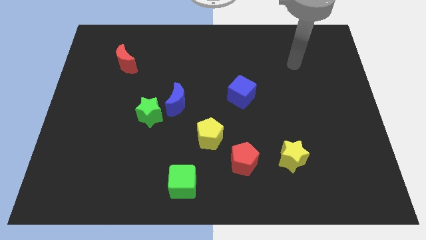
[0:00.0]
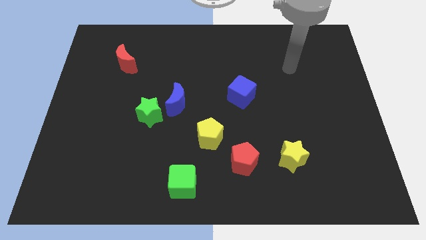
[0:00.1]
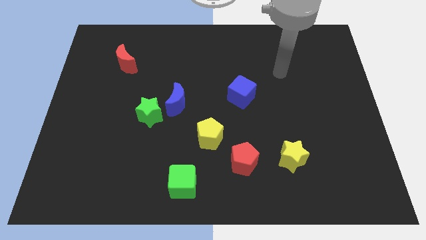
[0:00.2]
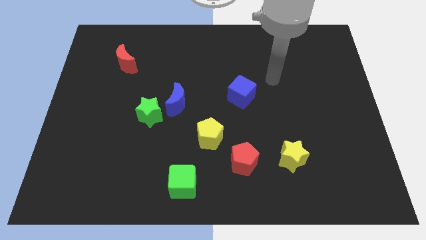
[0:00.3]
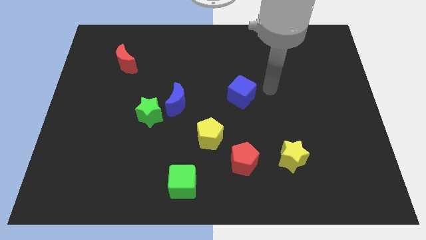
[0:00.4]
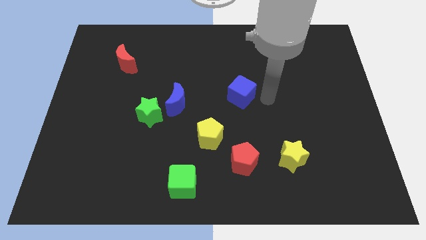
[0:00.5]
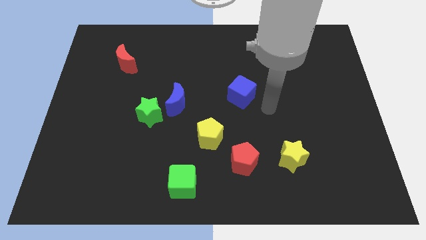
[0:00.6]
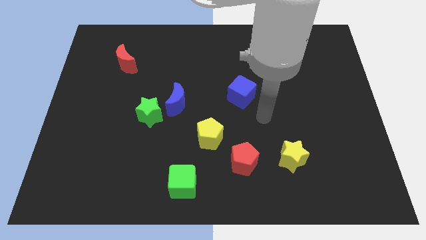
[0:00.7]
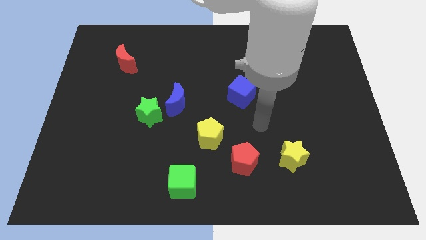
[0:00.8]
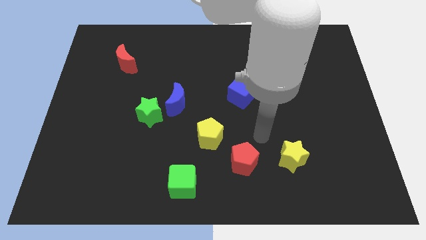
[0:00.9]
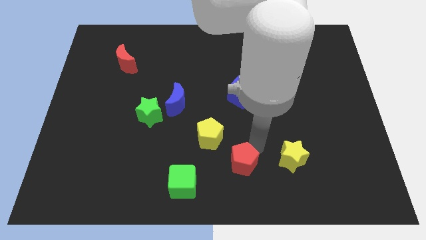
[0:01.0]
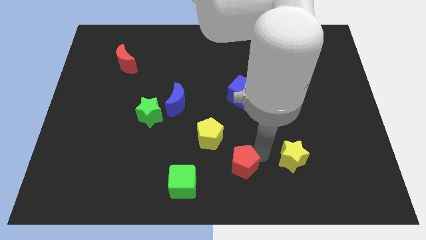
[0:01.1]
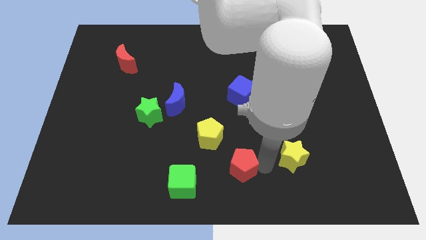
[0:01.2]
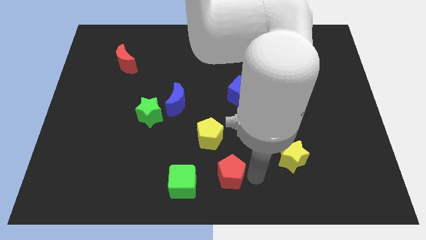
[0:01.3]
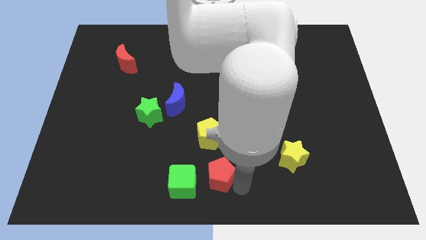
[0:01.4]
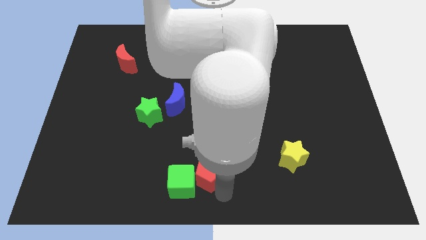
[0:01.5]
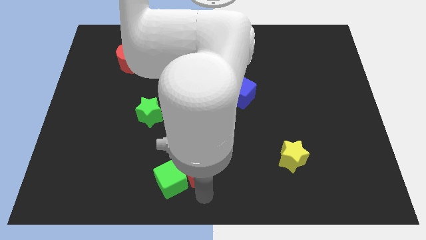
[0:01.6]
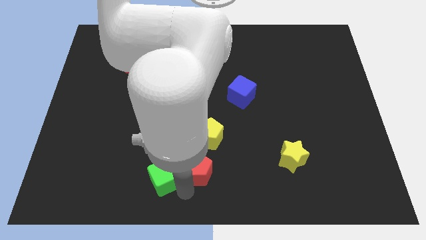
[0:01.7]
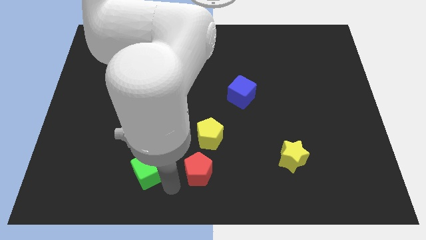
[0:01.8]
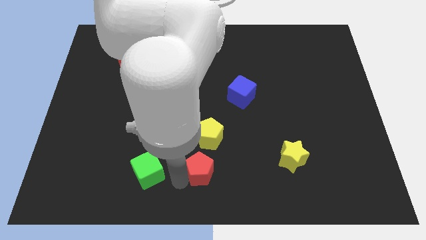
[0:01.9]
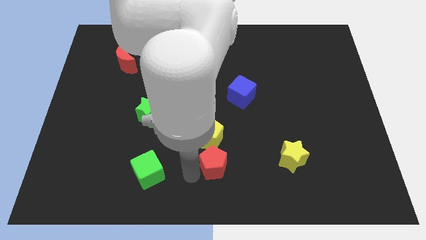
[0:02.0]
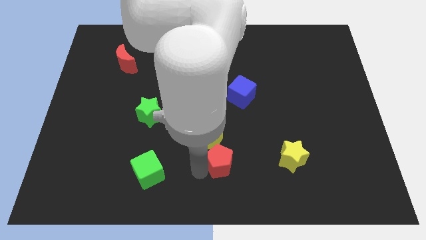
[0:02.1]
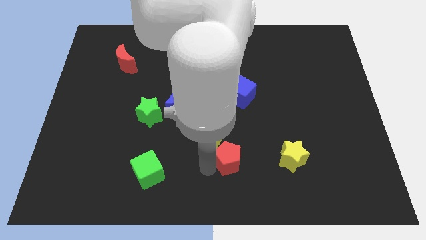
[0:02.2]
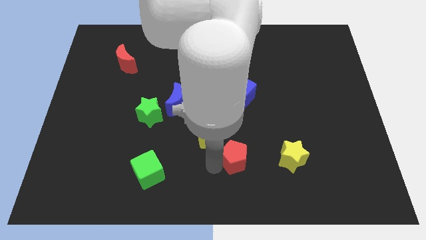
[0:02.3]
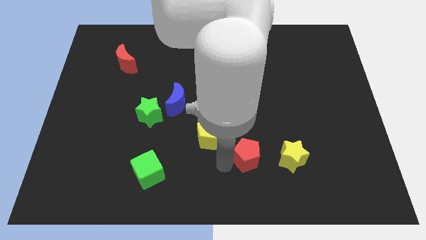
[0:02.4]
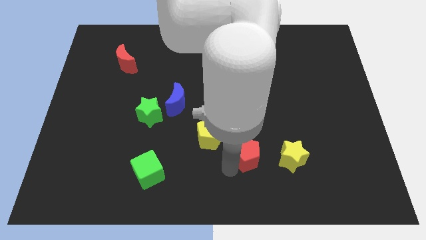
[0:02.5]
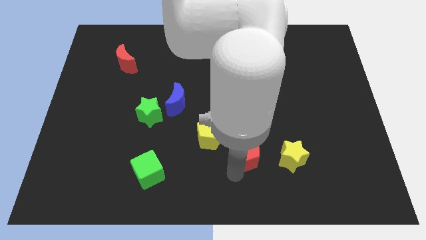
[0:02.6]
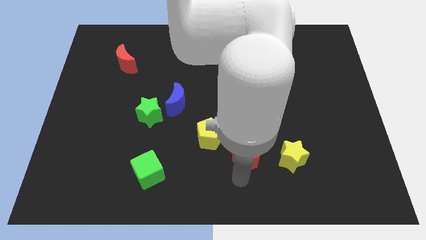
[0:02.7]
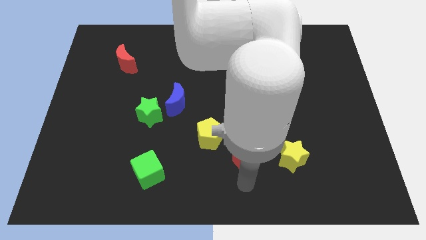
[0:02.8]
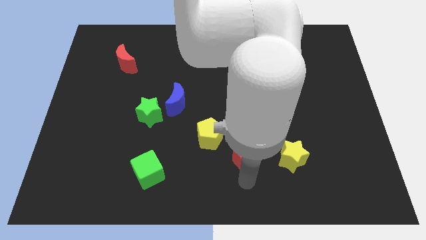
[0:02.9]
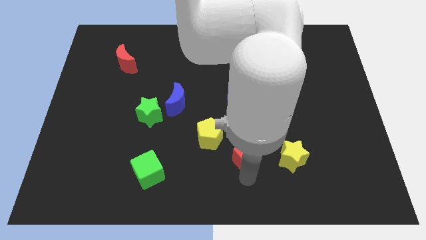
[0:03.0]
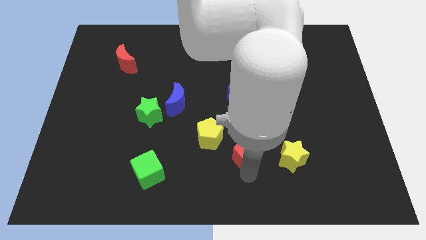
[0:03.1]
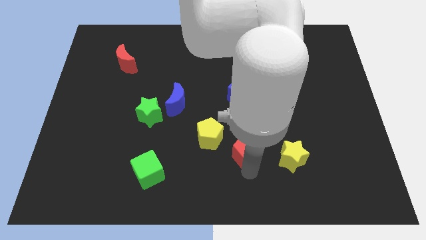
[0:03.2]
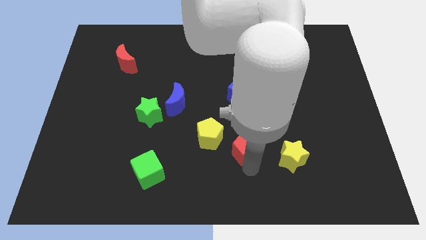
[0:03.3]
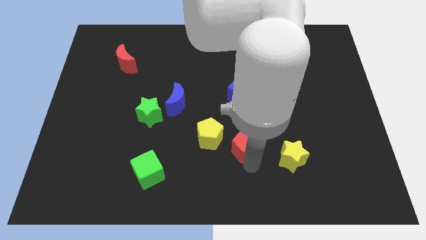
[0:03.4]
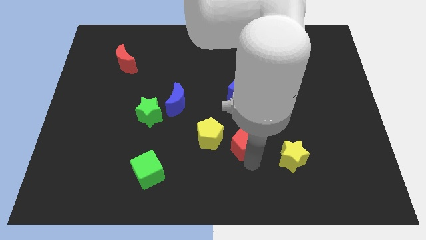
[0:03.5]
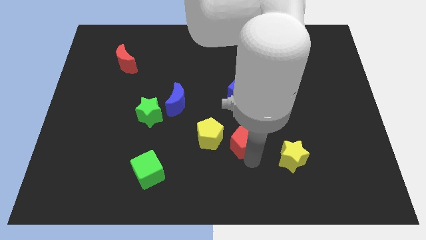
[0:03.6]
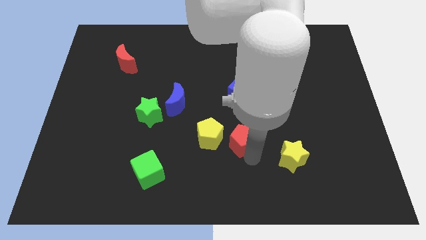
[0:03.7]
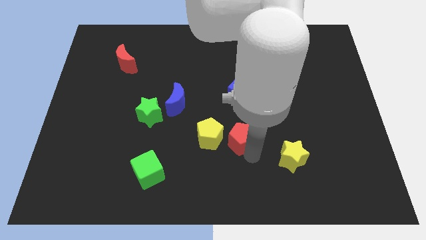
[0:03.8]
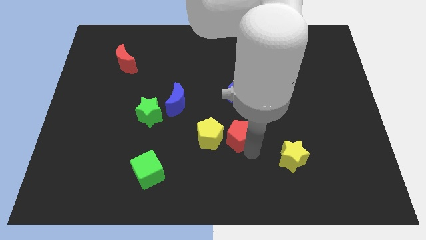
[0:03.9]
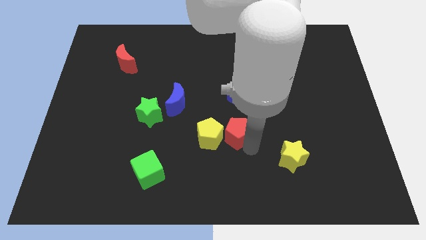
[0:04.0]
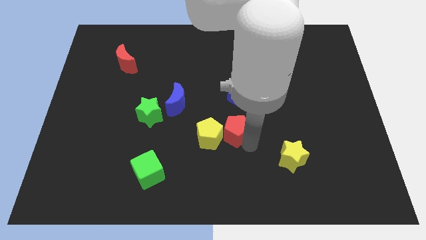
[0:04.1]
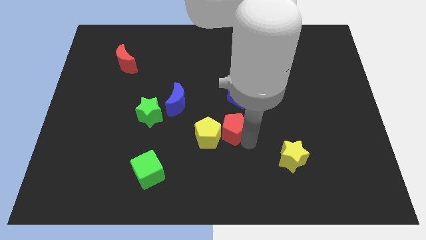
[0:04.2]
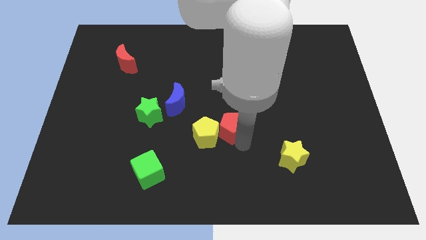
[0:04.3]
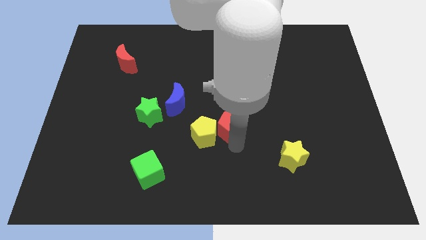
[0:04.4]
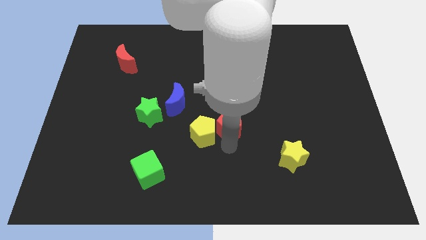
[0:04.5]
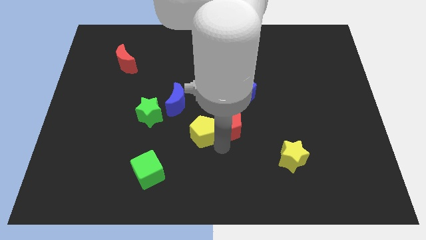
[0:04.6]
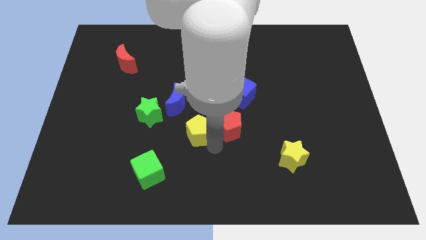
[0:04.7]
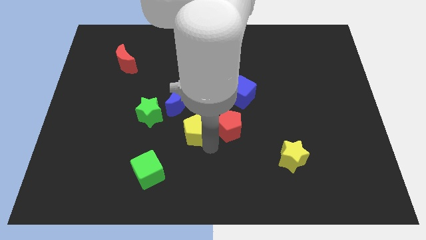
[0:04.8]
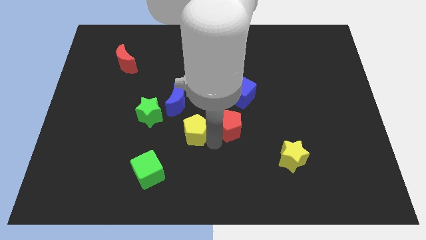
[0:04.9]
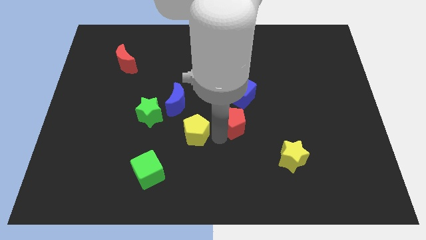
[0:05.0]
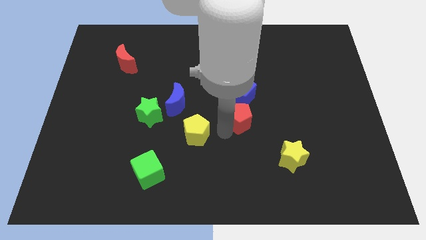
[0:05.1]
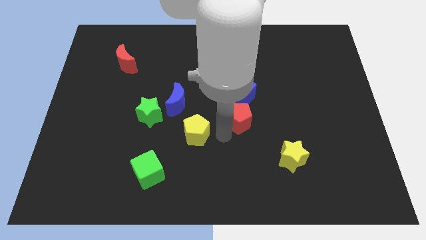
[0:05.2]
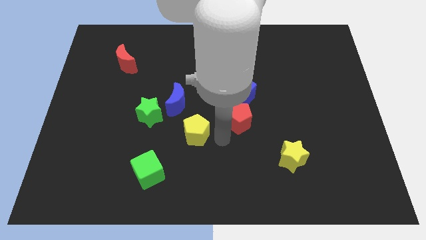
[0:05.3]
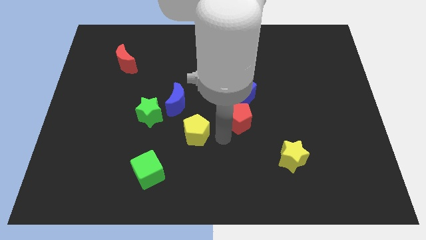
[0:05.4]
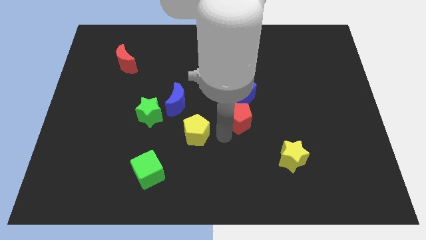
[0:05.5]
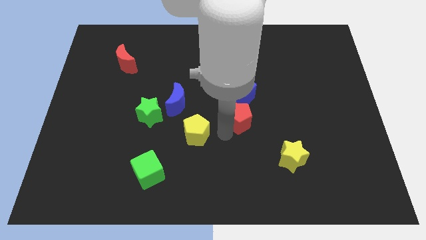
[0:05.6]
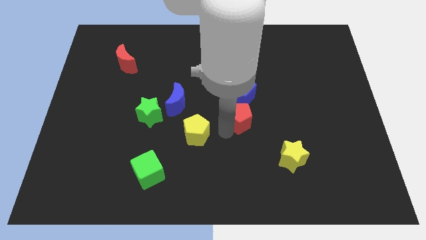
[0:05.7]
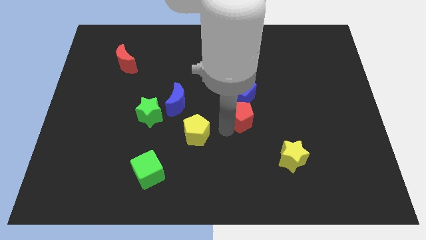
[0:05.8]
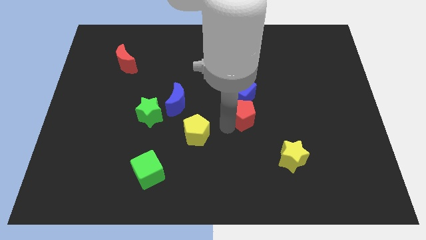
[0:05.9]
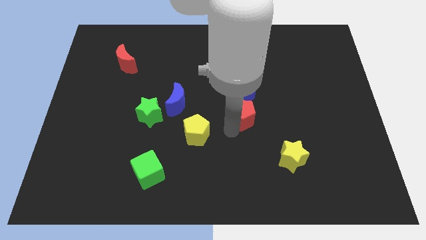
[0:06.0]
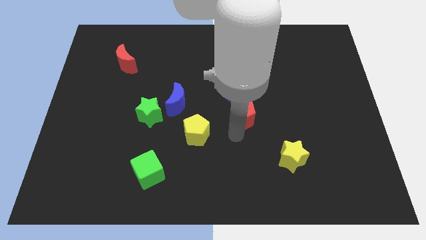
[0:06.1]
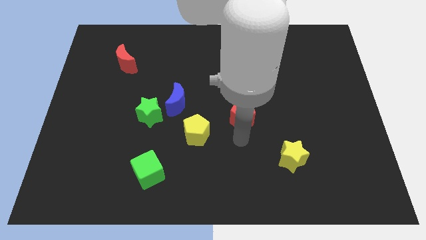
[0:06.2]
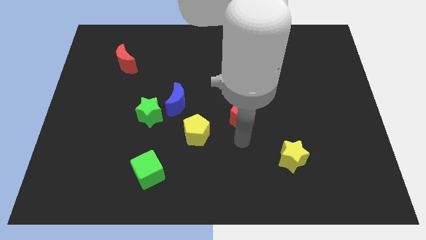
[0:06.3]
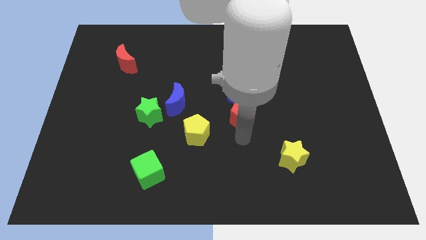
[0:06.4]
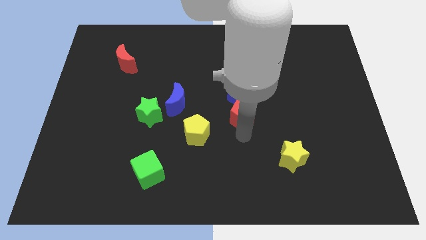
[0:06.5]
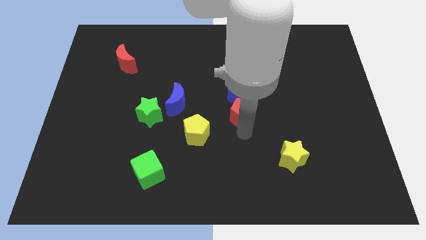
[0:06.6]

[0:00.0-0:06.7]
push the red pentagon next to the blue cube

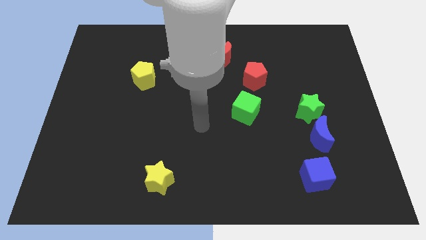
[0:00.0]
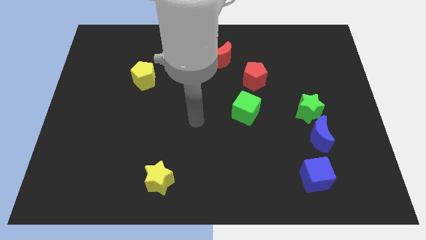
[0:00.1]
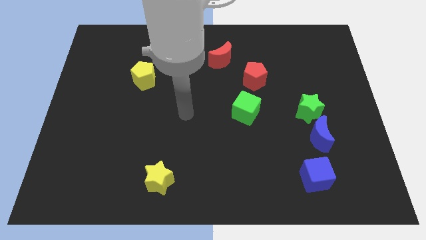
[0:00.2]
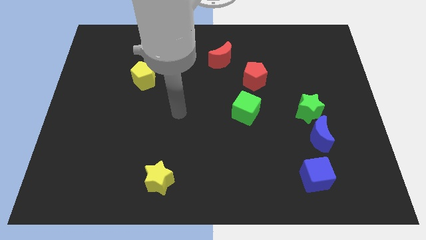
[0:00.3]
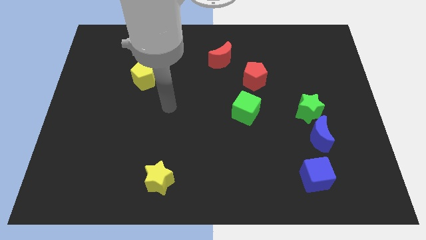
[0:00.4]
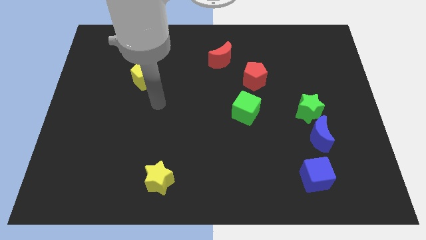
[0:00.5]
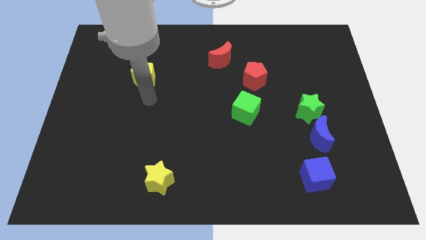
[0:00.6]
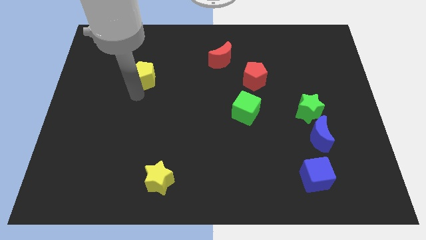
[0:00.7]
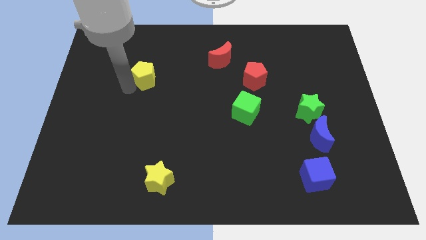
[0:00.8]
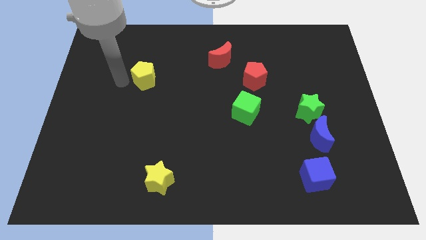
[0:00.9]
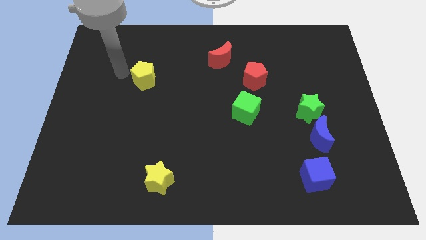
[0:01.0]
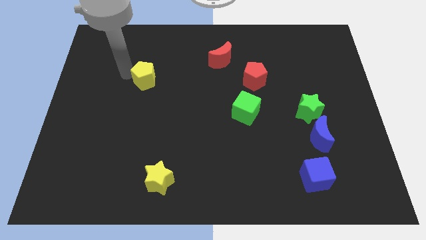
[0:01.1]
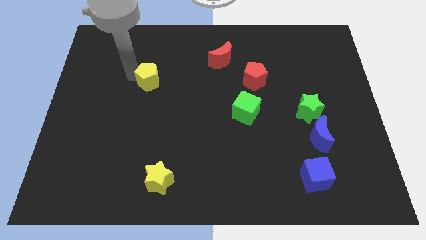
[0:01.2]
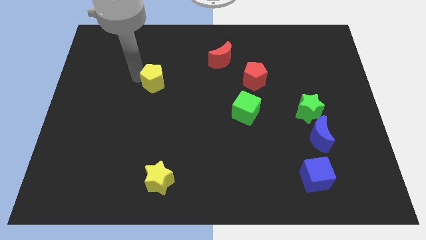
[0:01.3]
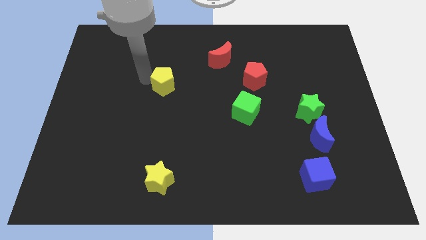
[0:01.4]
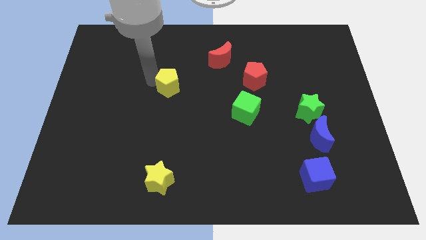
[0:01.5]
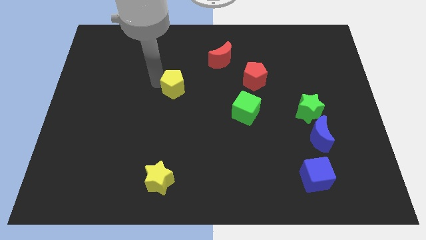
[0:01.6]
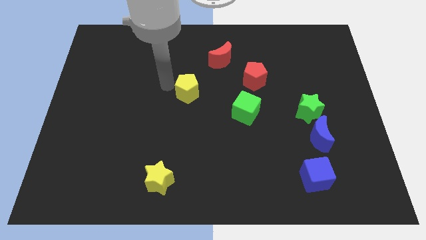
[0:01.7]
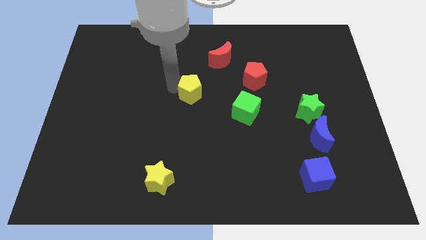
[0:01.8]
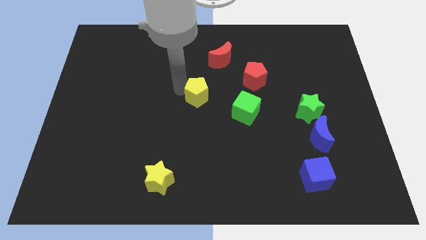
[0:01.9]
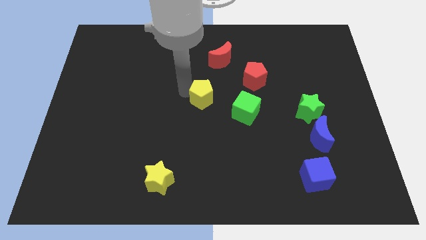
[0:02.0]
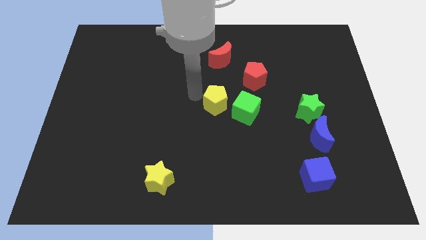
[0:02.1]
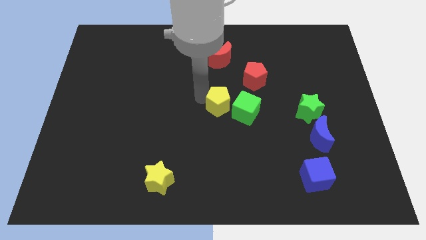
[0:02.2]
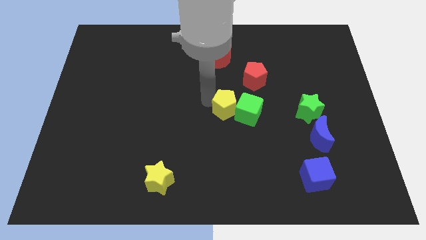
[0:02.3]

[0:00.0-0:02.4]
push the yellow pentagon close to the green cube
